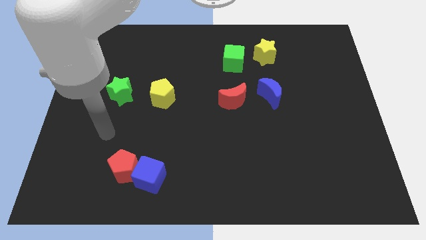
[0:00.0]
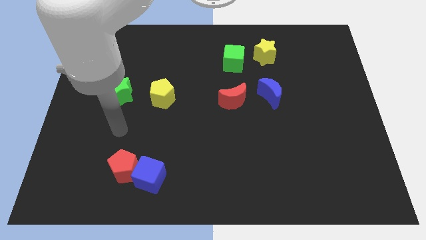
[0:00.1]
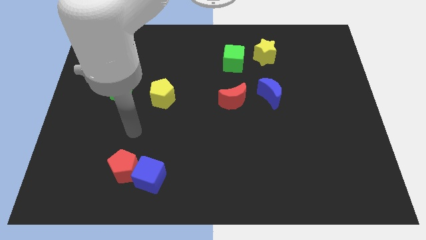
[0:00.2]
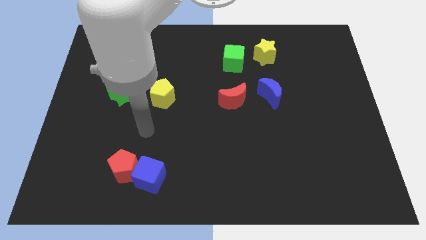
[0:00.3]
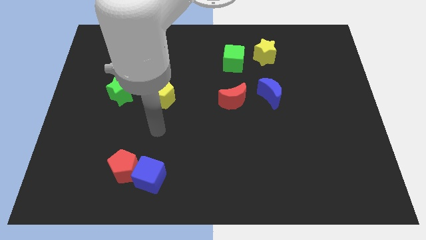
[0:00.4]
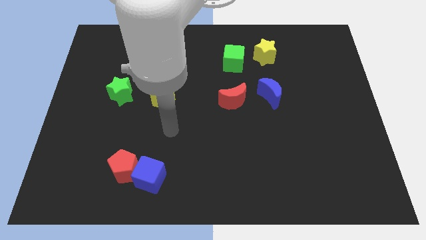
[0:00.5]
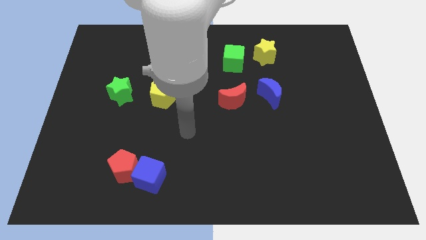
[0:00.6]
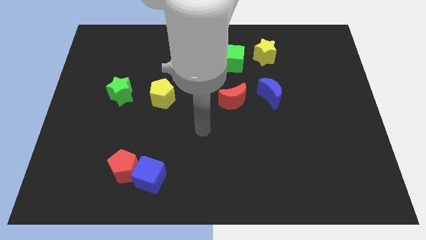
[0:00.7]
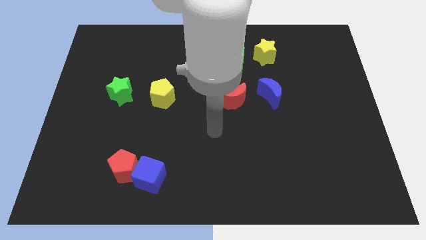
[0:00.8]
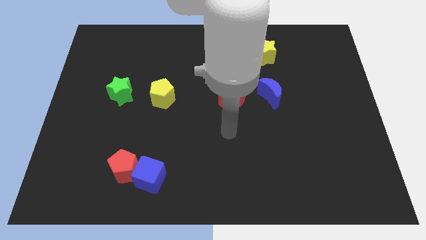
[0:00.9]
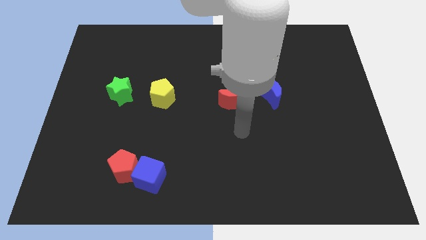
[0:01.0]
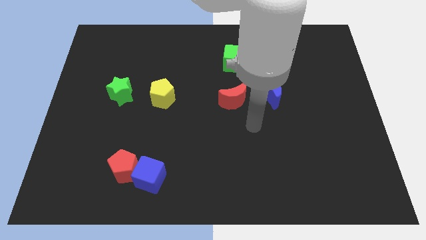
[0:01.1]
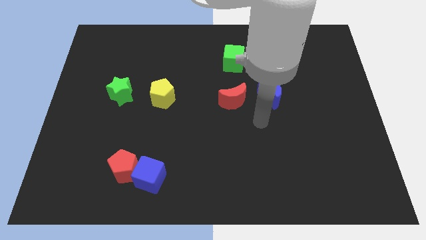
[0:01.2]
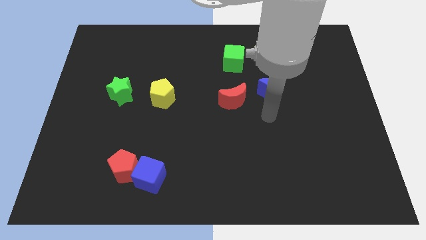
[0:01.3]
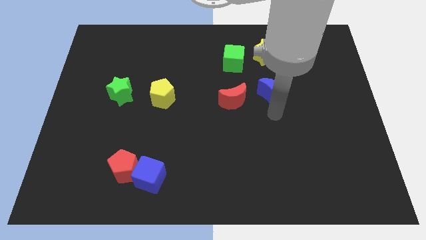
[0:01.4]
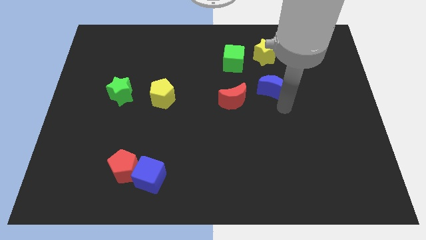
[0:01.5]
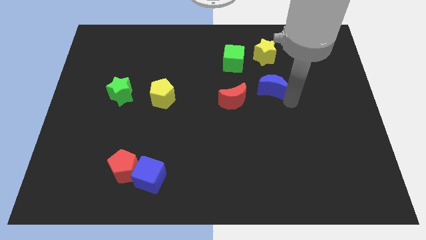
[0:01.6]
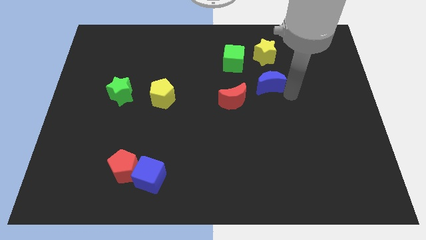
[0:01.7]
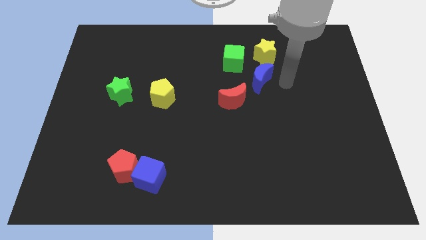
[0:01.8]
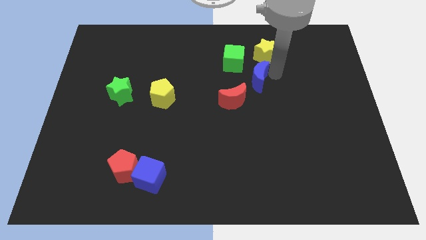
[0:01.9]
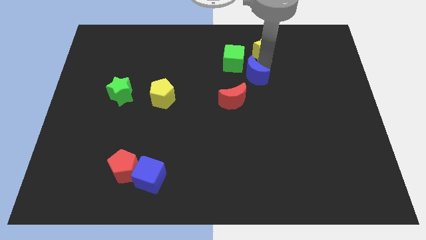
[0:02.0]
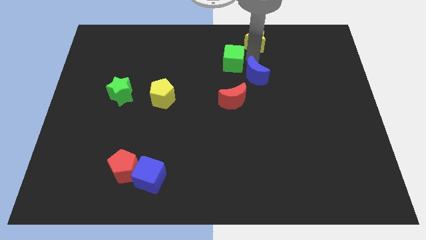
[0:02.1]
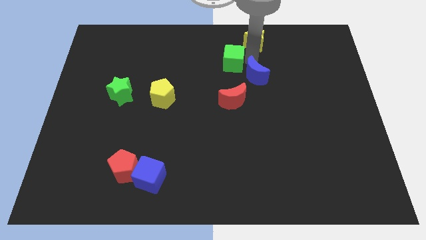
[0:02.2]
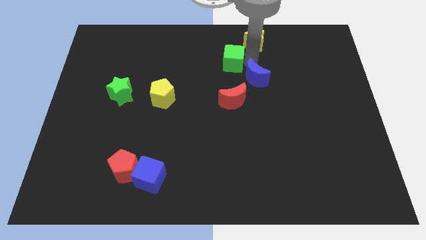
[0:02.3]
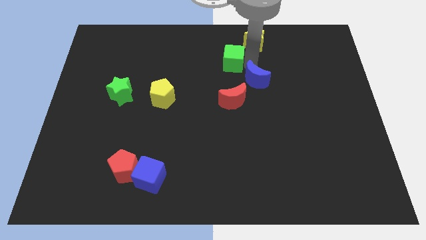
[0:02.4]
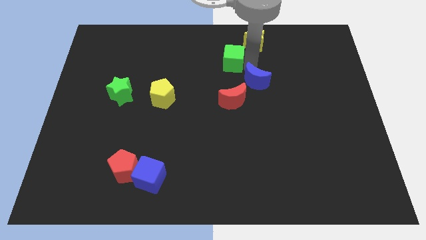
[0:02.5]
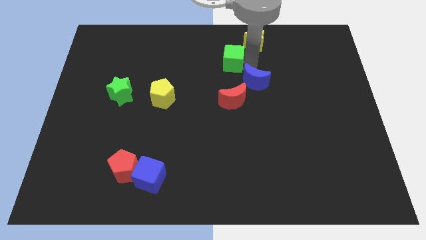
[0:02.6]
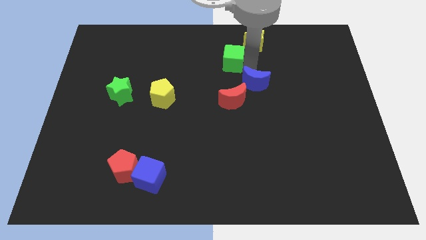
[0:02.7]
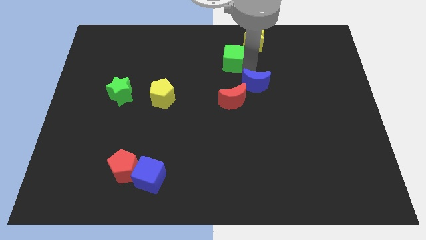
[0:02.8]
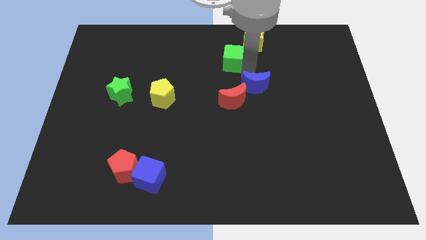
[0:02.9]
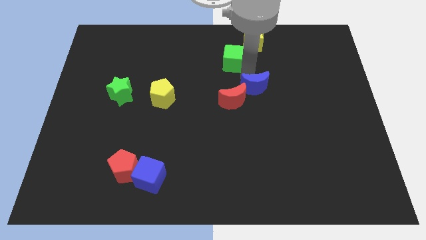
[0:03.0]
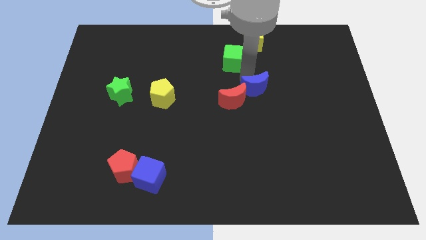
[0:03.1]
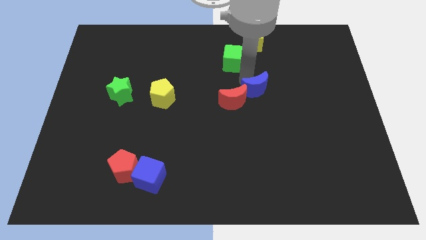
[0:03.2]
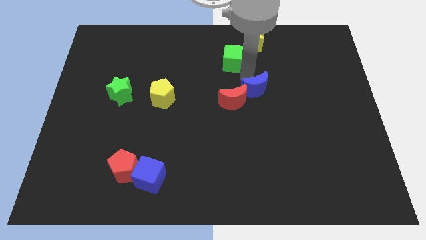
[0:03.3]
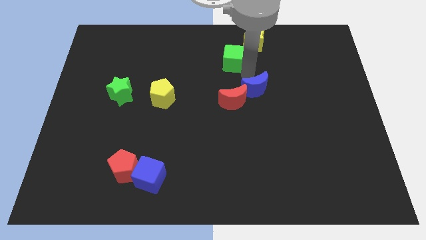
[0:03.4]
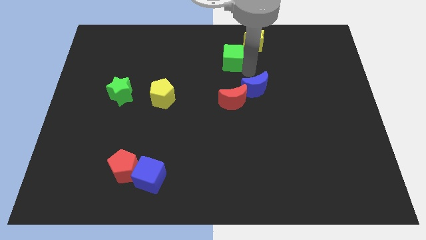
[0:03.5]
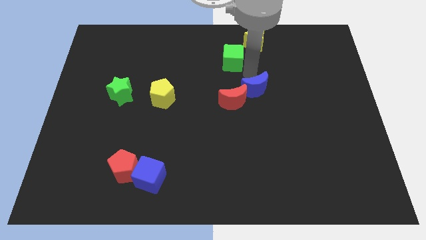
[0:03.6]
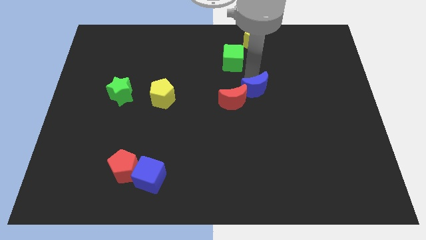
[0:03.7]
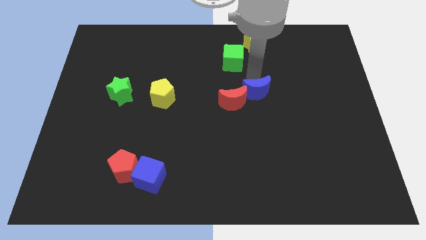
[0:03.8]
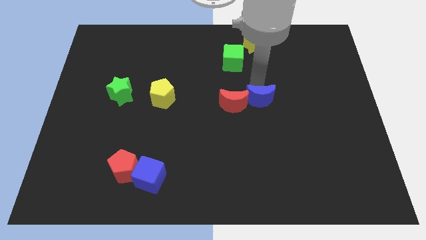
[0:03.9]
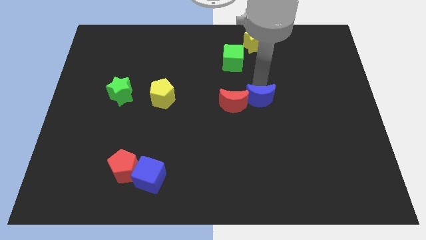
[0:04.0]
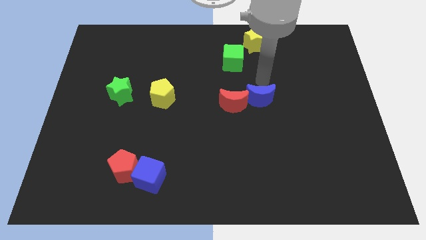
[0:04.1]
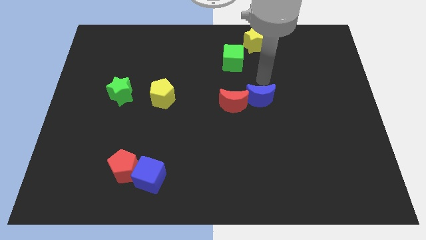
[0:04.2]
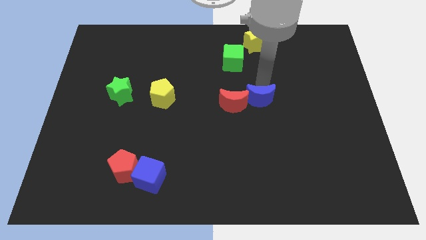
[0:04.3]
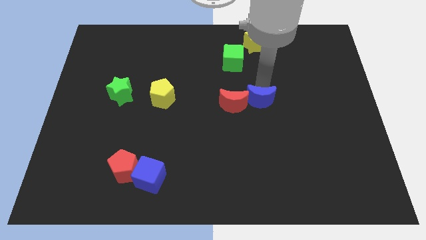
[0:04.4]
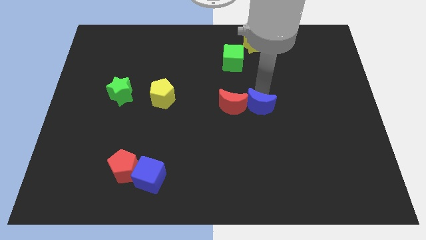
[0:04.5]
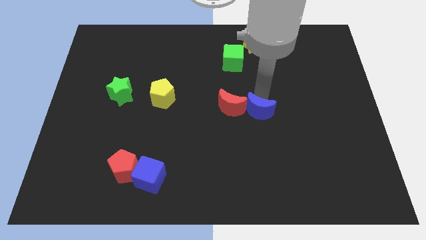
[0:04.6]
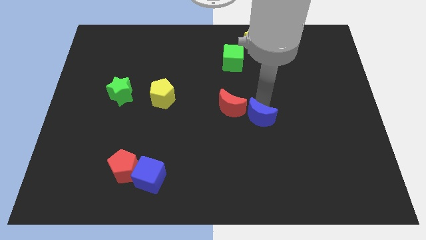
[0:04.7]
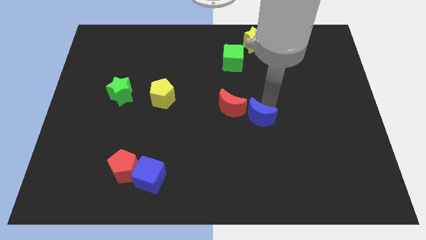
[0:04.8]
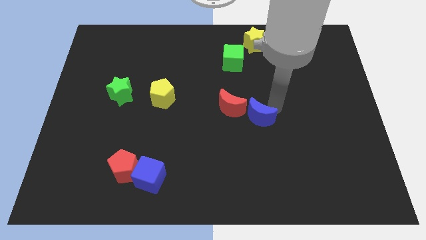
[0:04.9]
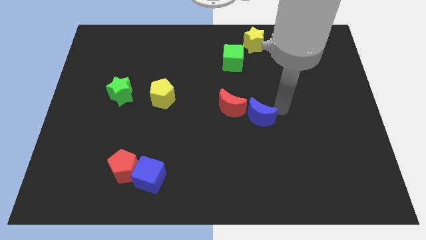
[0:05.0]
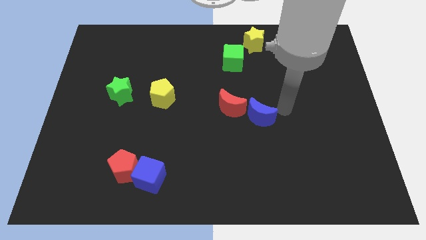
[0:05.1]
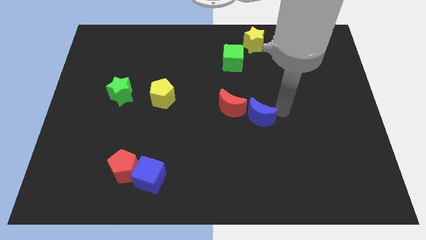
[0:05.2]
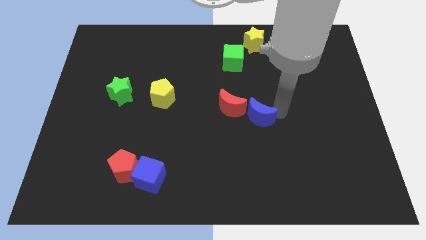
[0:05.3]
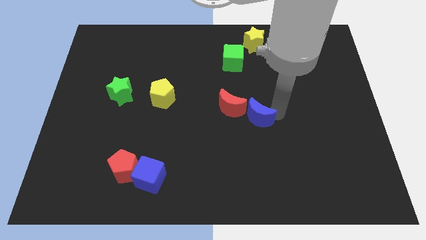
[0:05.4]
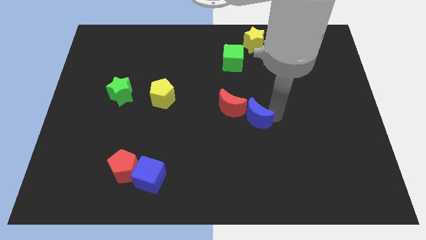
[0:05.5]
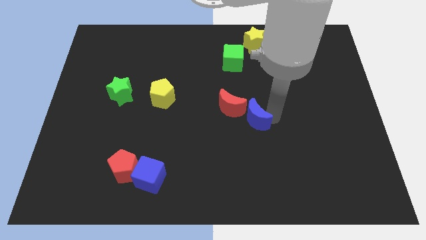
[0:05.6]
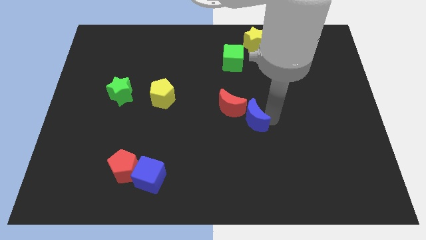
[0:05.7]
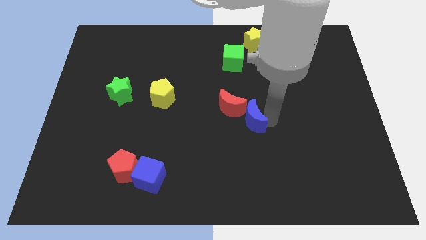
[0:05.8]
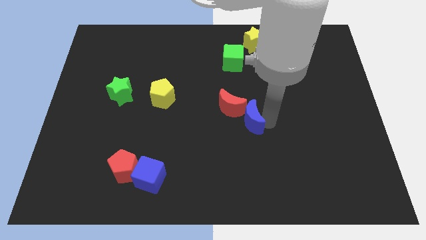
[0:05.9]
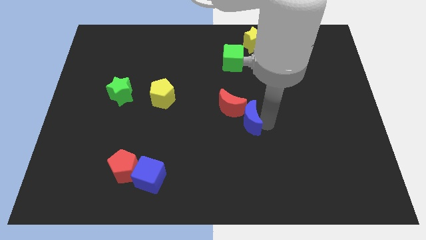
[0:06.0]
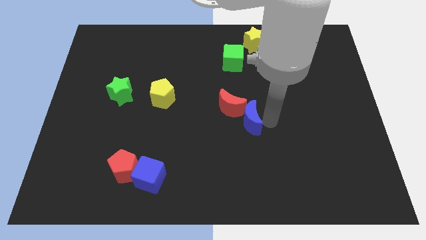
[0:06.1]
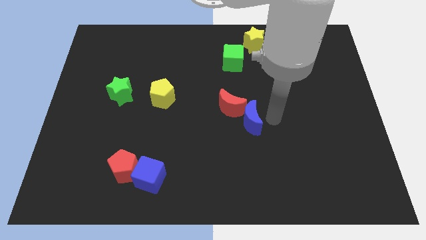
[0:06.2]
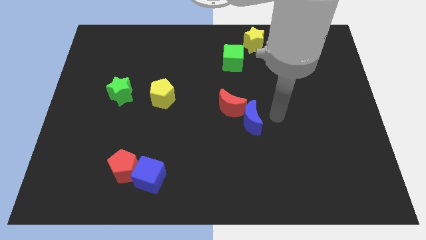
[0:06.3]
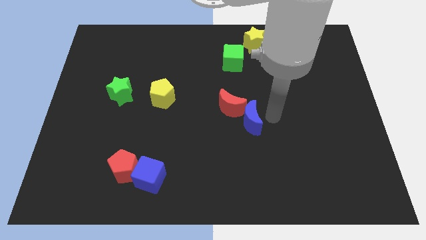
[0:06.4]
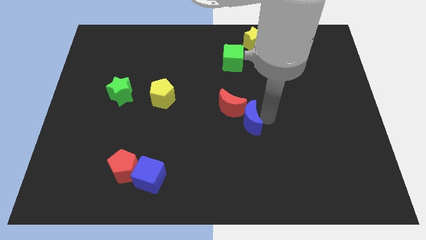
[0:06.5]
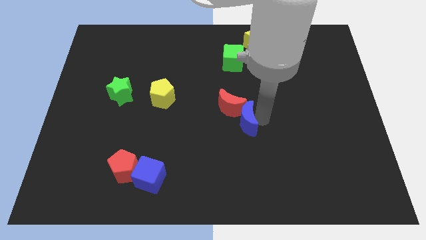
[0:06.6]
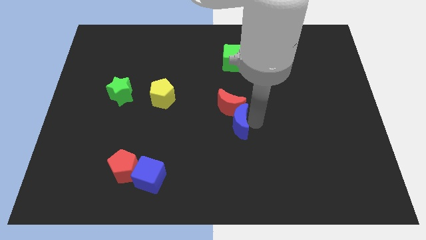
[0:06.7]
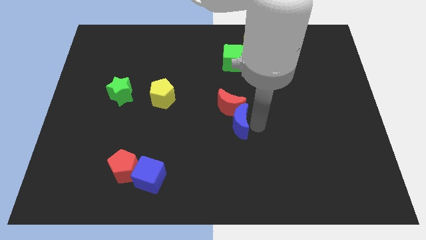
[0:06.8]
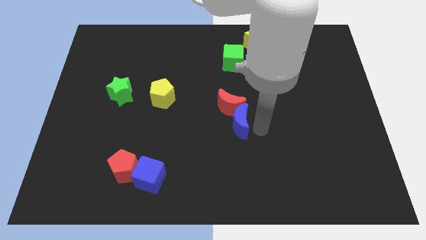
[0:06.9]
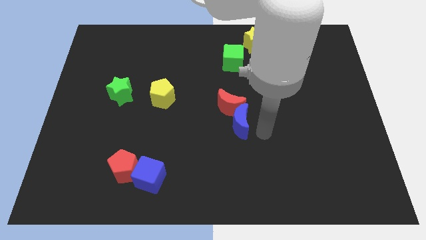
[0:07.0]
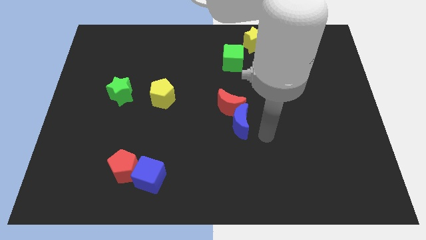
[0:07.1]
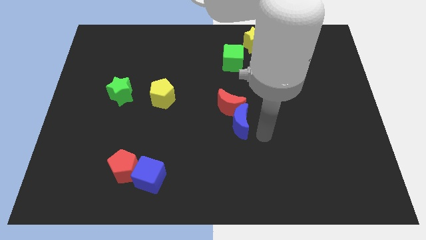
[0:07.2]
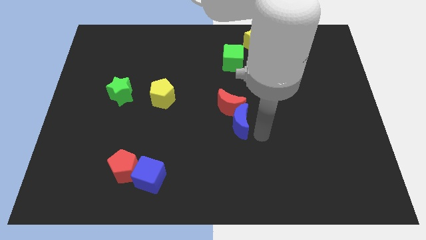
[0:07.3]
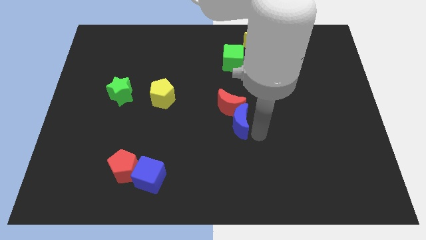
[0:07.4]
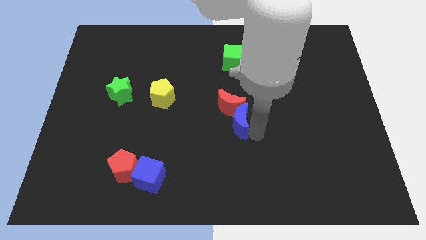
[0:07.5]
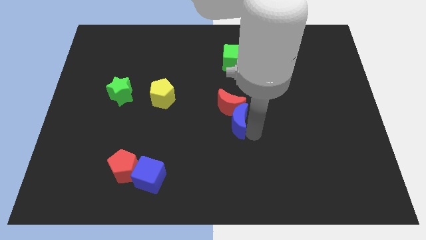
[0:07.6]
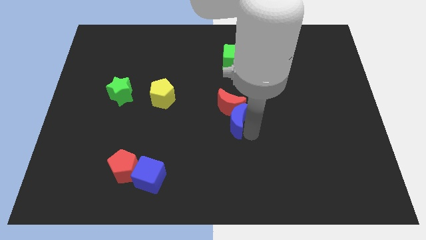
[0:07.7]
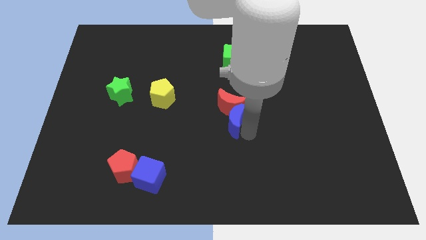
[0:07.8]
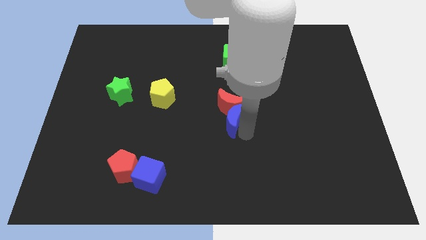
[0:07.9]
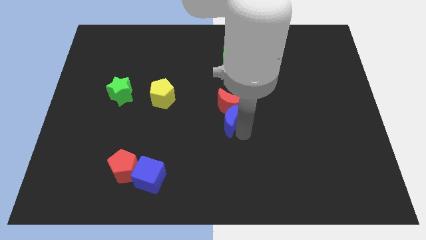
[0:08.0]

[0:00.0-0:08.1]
slide the blue moon left a little bit
